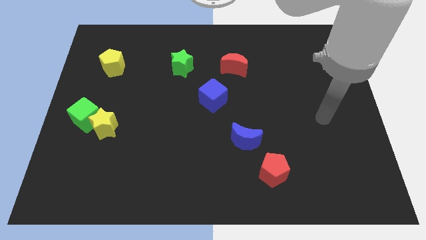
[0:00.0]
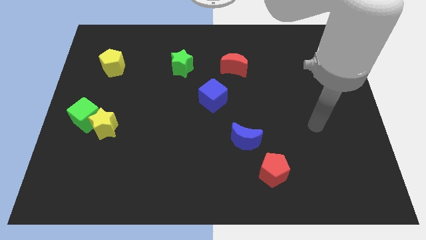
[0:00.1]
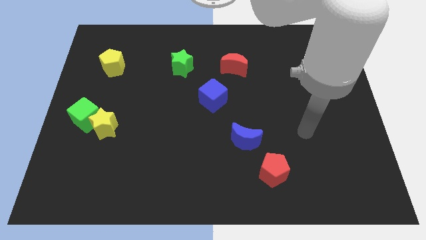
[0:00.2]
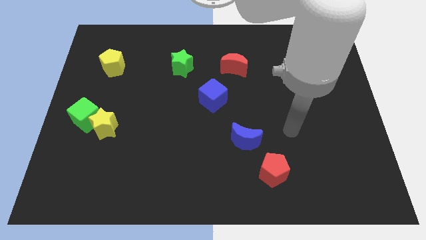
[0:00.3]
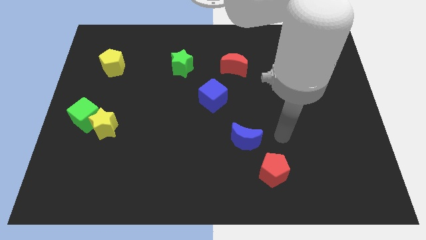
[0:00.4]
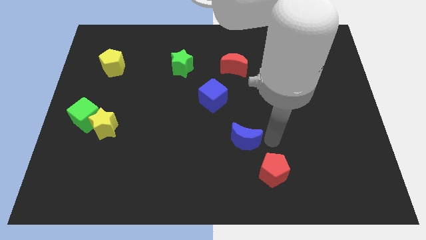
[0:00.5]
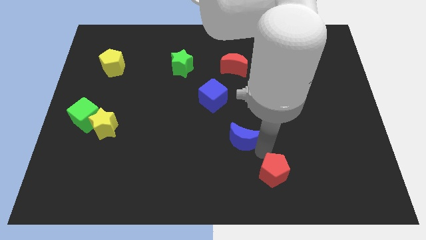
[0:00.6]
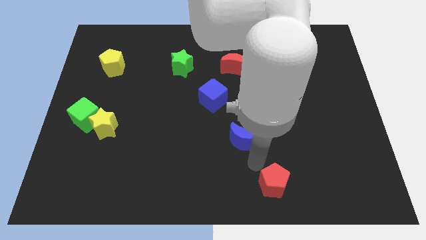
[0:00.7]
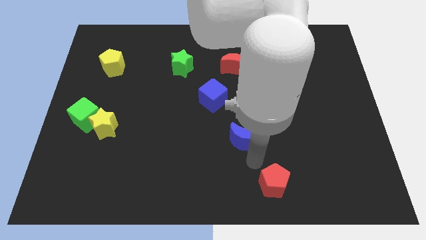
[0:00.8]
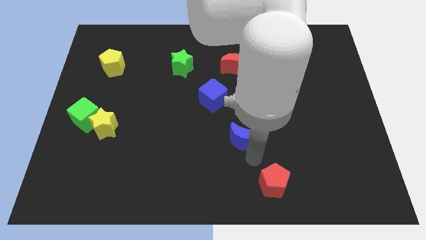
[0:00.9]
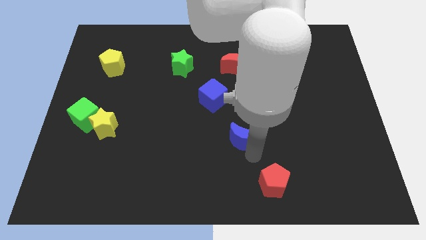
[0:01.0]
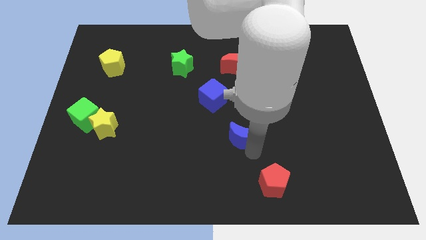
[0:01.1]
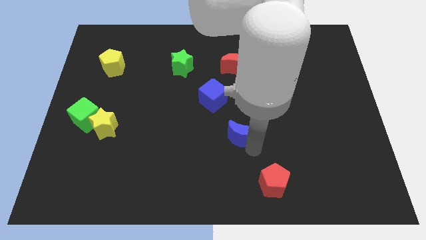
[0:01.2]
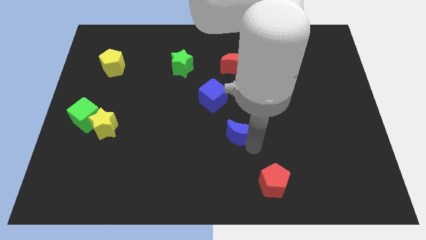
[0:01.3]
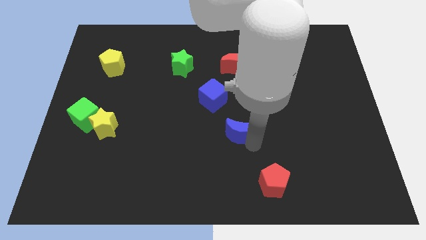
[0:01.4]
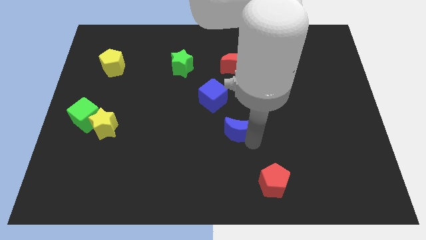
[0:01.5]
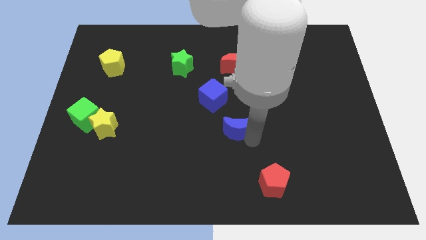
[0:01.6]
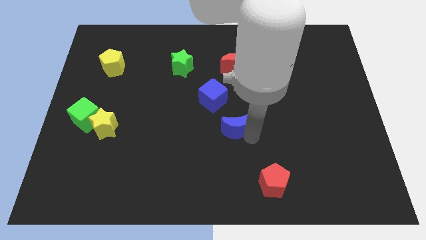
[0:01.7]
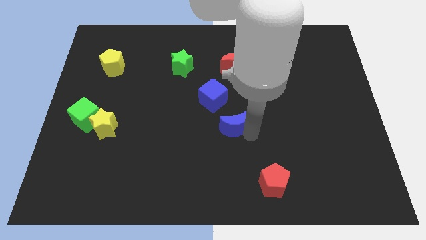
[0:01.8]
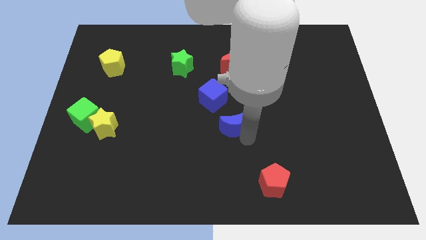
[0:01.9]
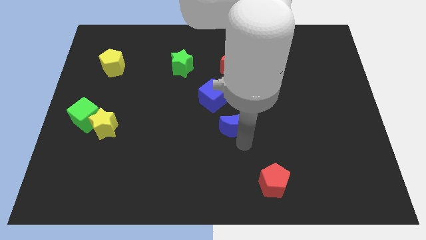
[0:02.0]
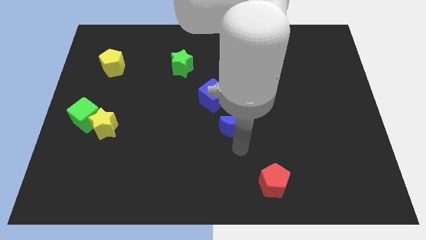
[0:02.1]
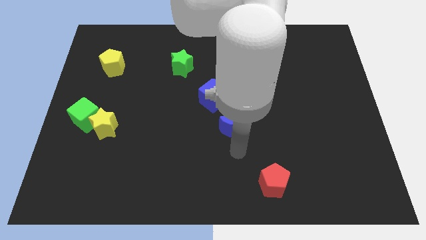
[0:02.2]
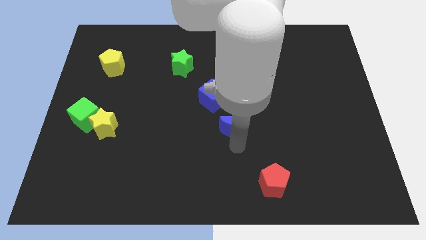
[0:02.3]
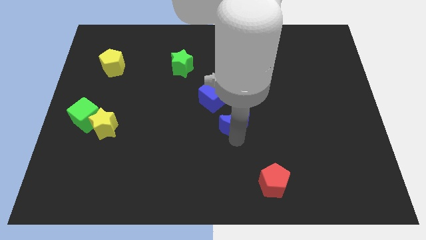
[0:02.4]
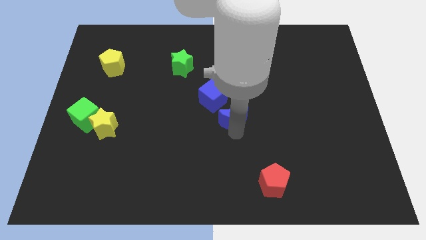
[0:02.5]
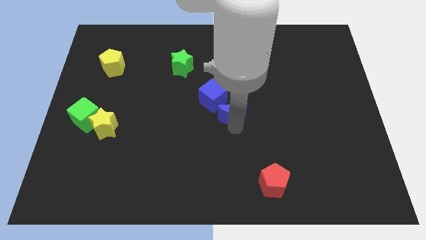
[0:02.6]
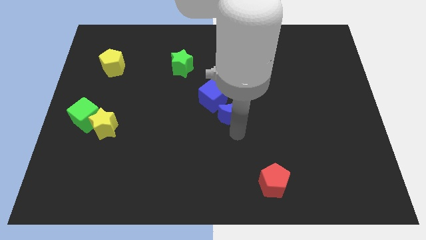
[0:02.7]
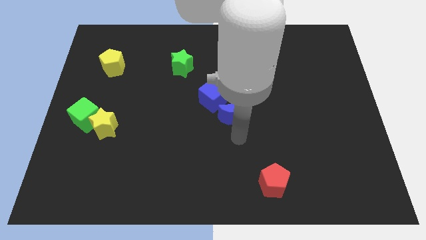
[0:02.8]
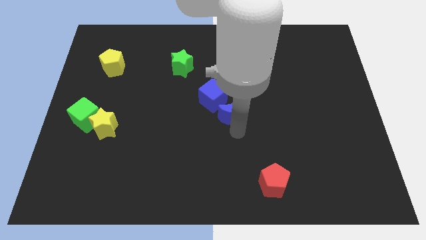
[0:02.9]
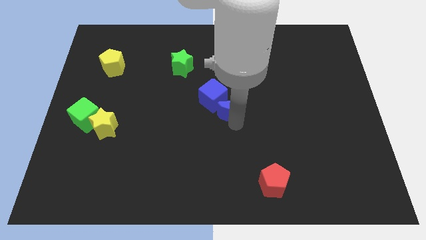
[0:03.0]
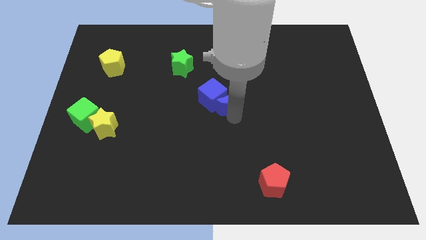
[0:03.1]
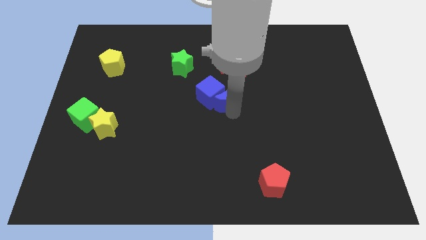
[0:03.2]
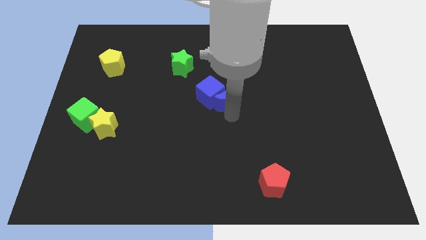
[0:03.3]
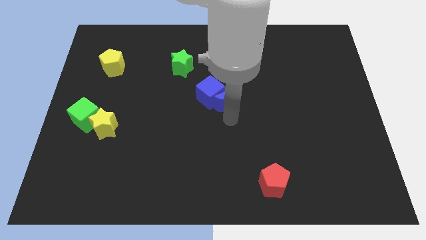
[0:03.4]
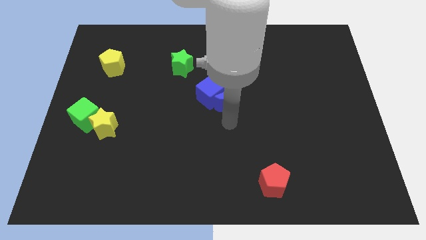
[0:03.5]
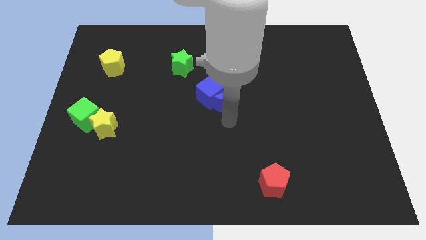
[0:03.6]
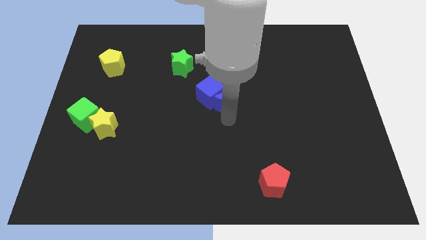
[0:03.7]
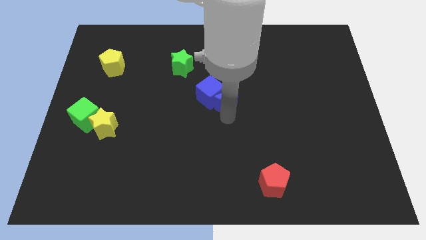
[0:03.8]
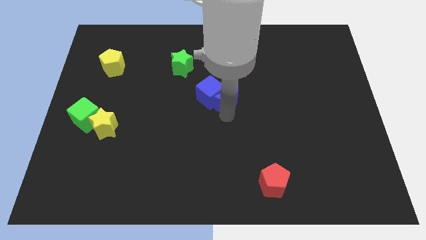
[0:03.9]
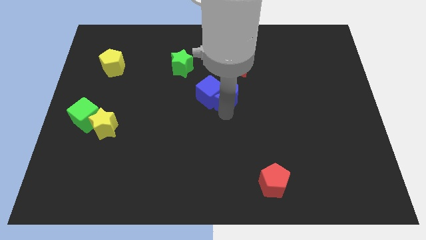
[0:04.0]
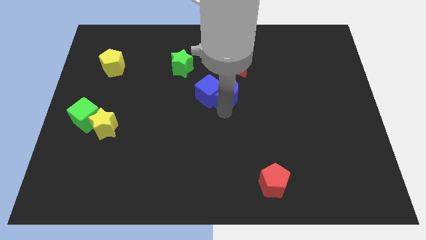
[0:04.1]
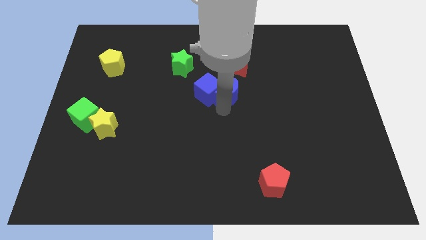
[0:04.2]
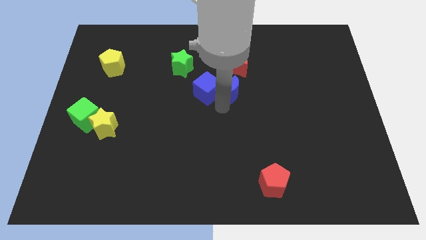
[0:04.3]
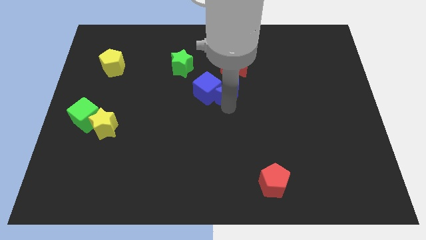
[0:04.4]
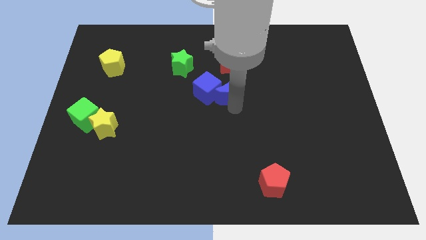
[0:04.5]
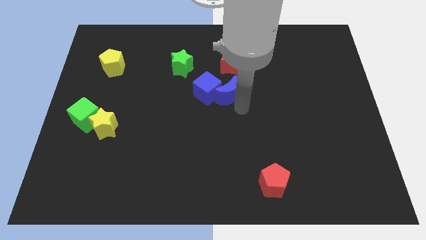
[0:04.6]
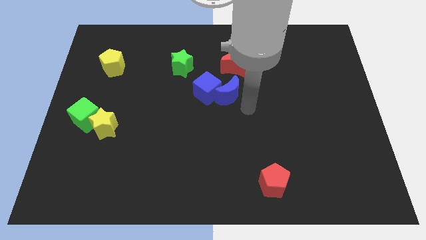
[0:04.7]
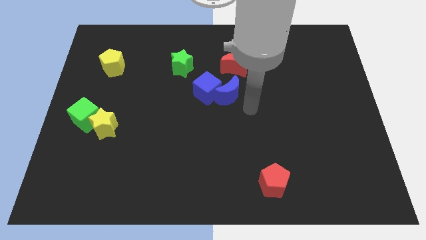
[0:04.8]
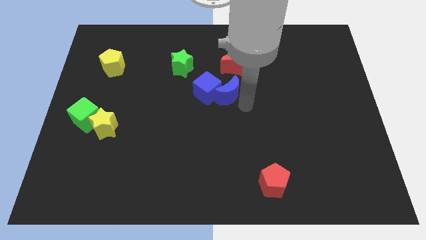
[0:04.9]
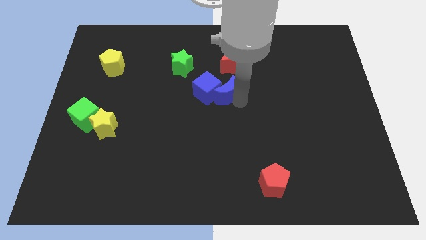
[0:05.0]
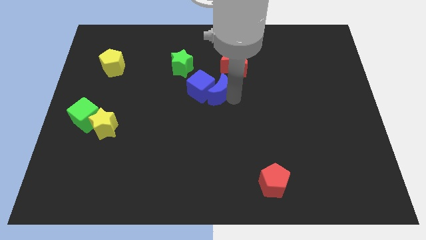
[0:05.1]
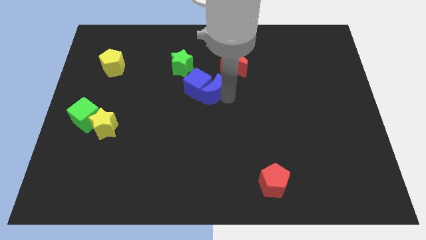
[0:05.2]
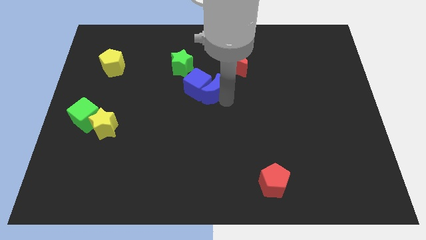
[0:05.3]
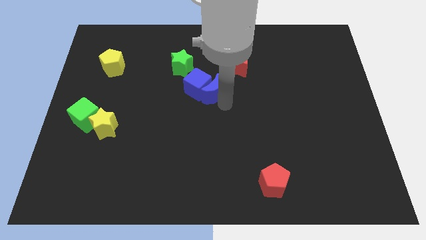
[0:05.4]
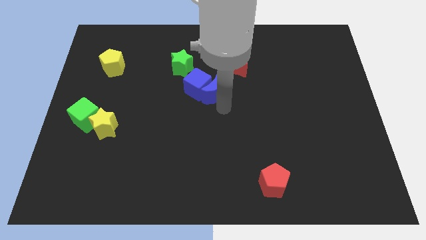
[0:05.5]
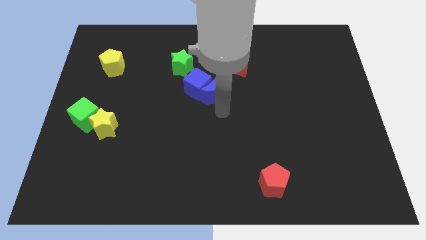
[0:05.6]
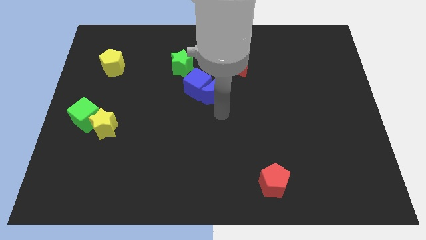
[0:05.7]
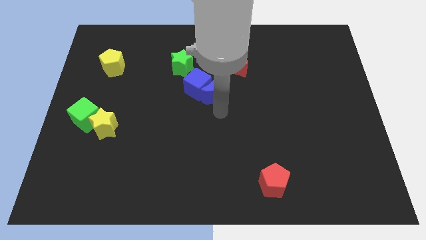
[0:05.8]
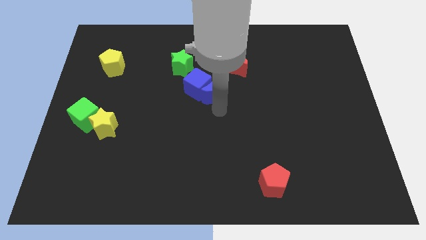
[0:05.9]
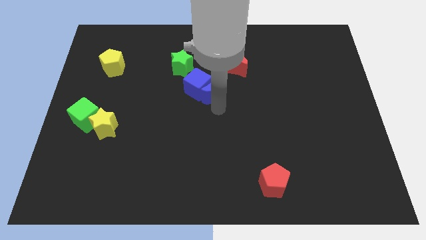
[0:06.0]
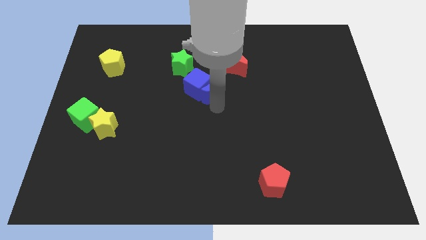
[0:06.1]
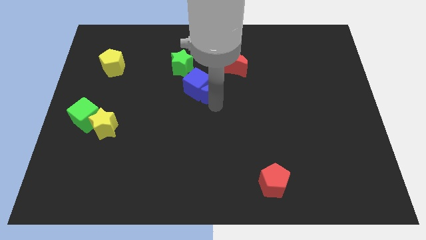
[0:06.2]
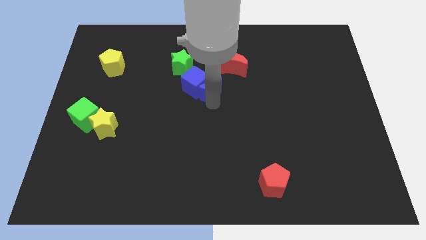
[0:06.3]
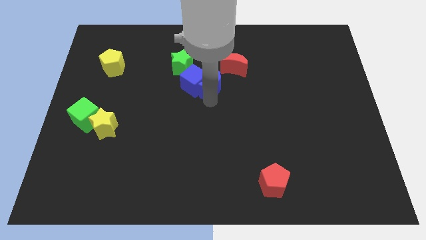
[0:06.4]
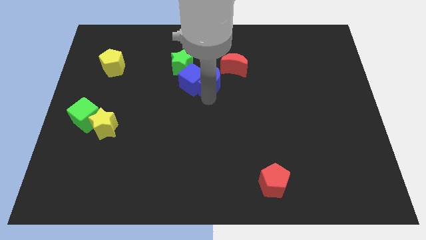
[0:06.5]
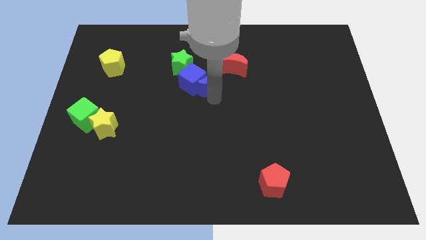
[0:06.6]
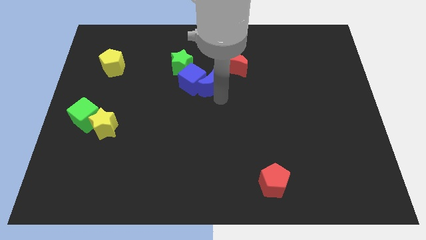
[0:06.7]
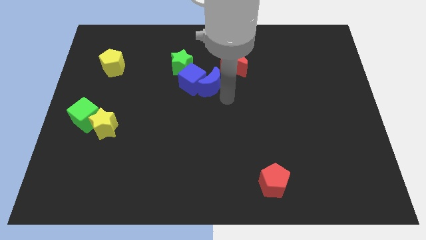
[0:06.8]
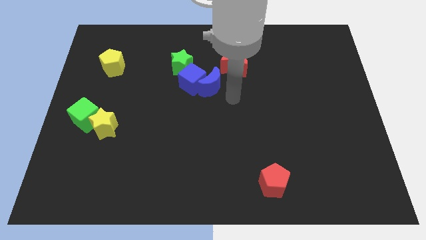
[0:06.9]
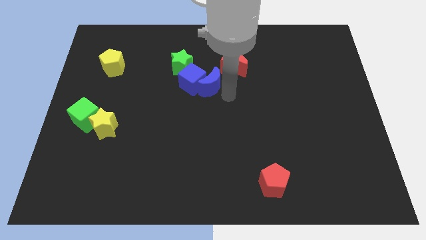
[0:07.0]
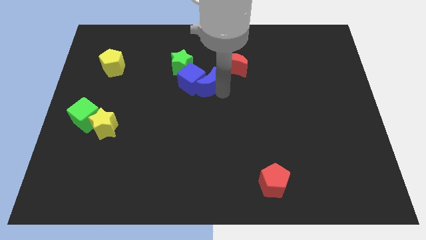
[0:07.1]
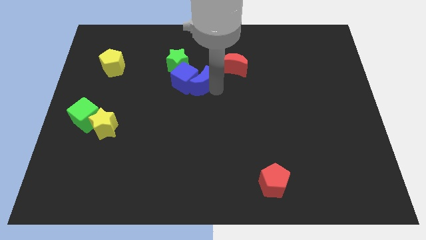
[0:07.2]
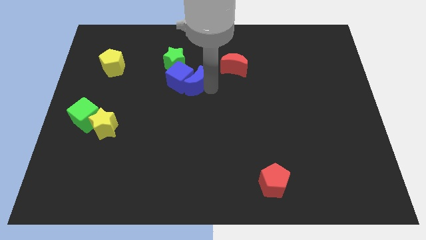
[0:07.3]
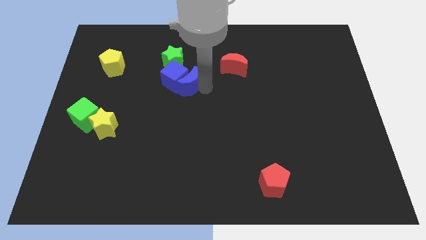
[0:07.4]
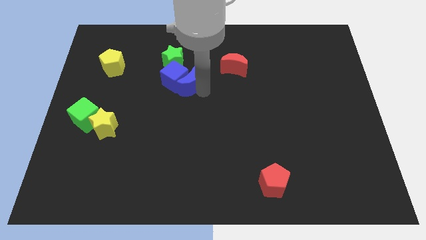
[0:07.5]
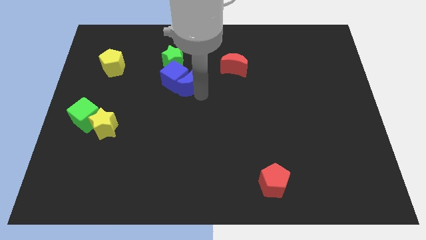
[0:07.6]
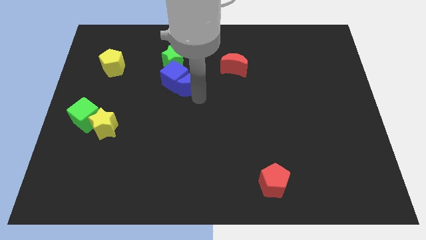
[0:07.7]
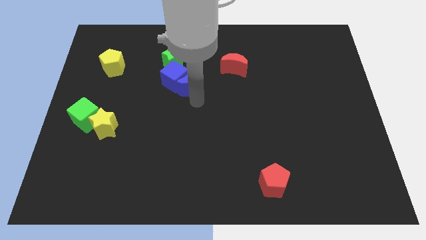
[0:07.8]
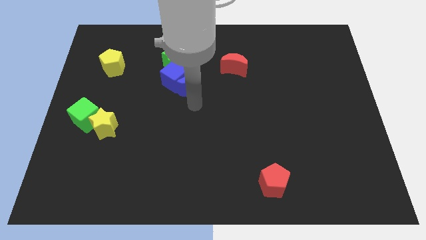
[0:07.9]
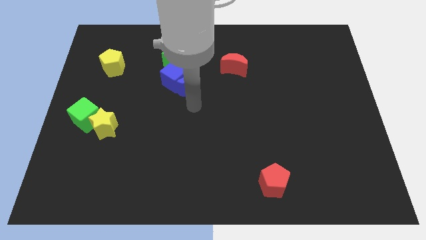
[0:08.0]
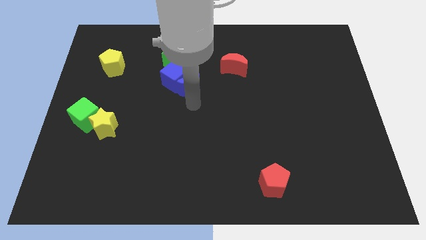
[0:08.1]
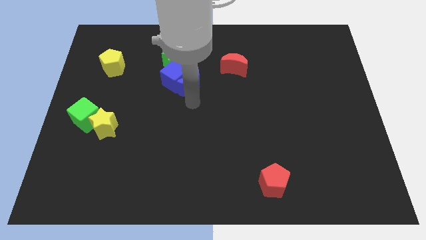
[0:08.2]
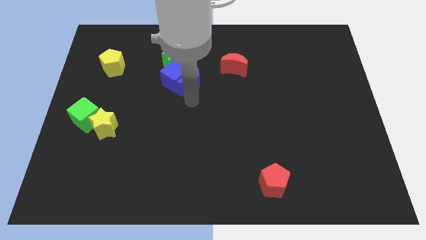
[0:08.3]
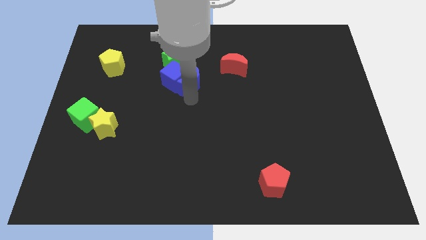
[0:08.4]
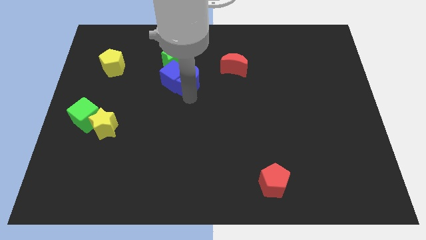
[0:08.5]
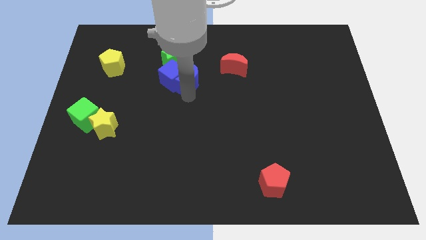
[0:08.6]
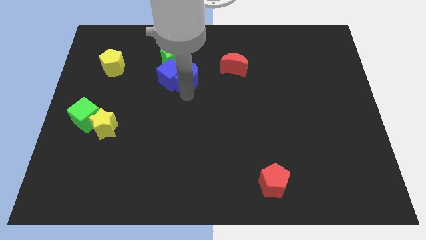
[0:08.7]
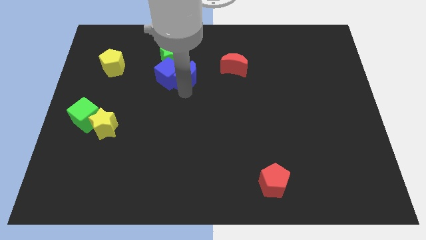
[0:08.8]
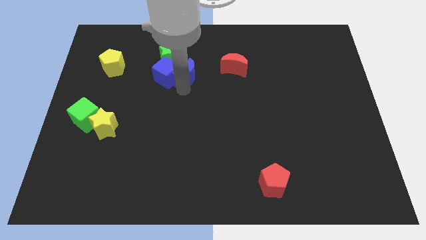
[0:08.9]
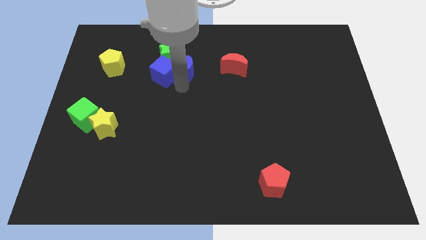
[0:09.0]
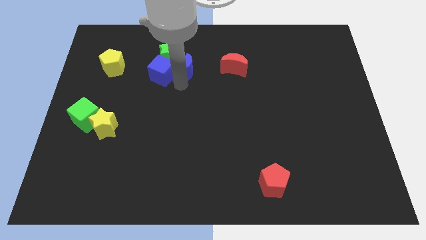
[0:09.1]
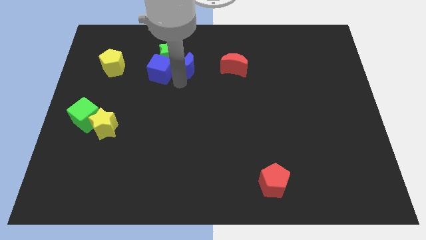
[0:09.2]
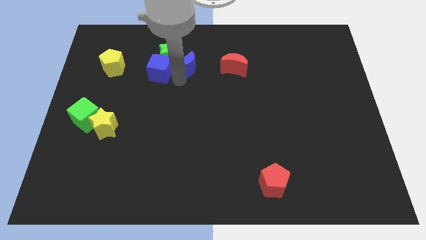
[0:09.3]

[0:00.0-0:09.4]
move the blue moon to the green star
